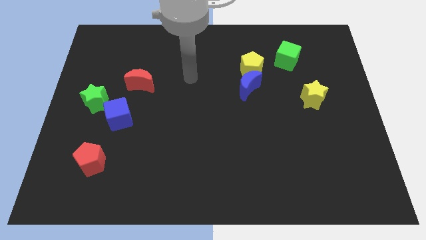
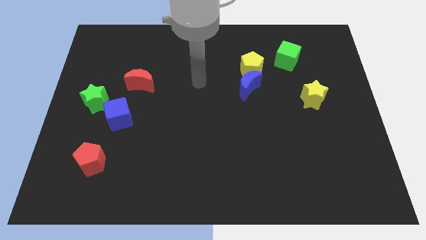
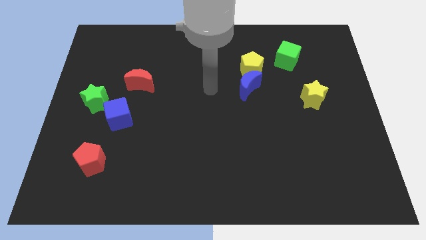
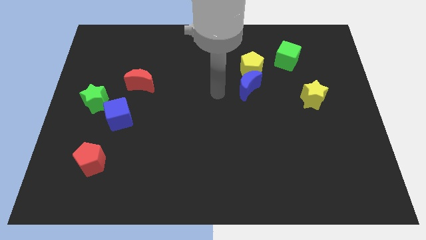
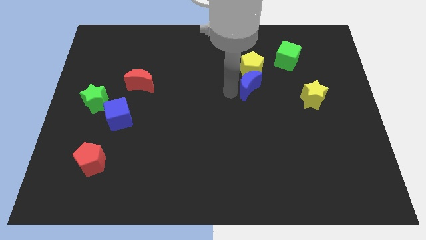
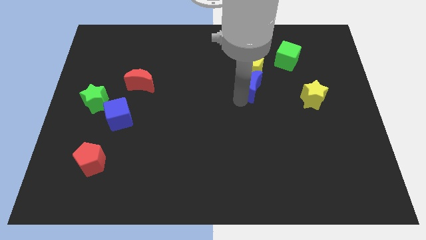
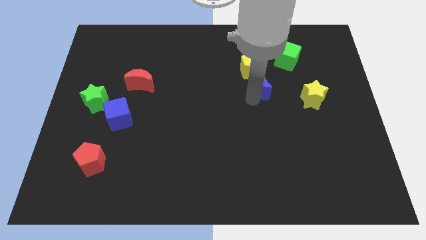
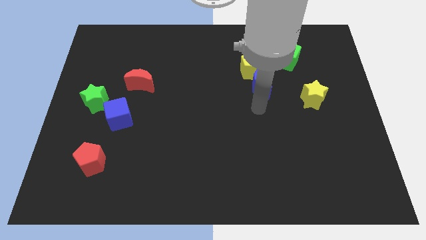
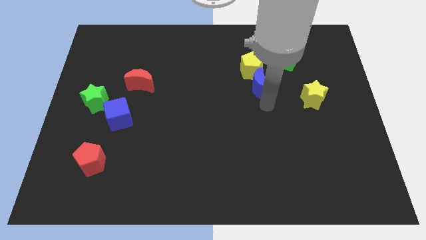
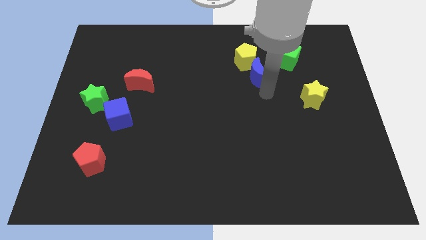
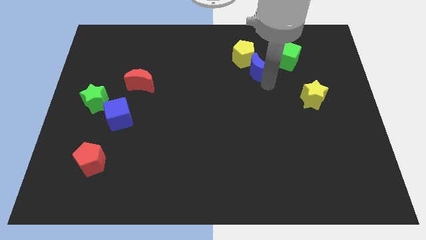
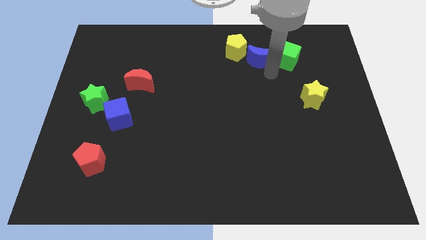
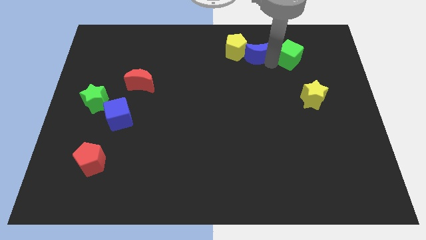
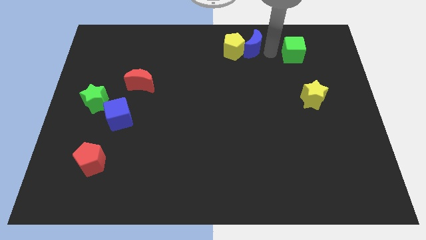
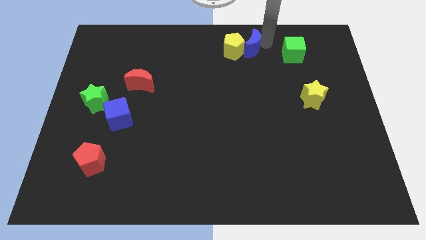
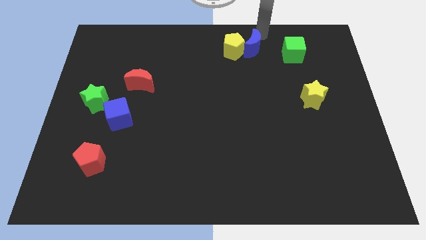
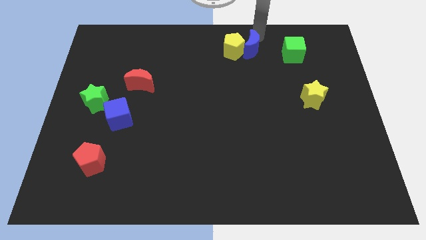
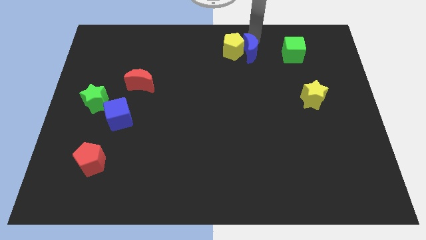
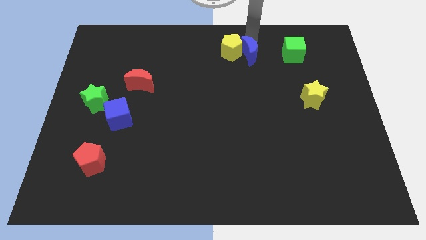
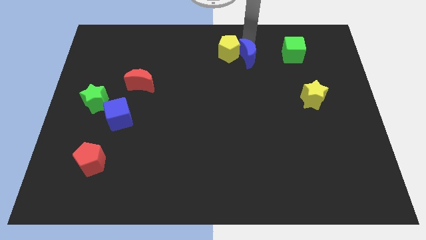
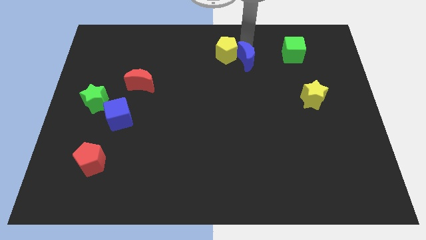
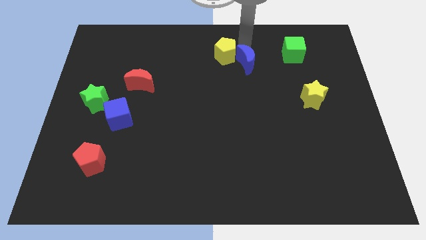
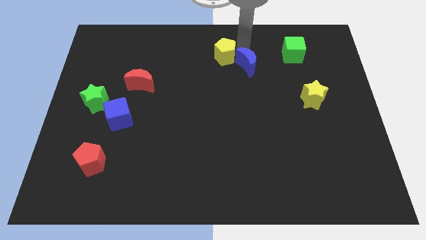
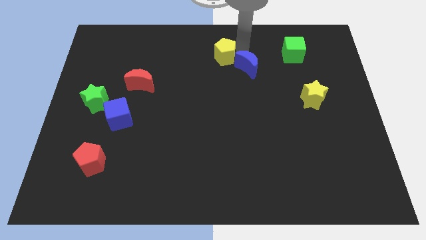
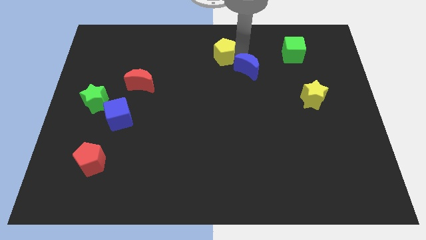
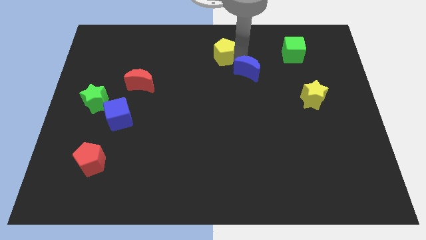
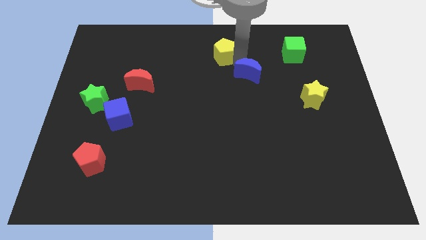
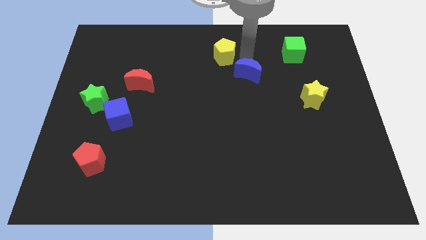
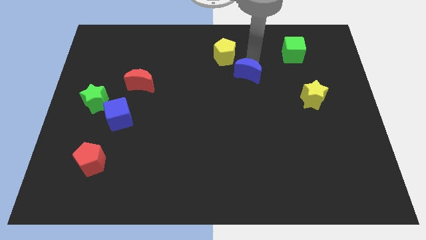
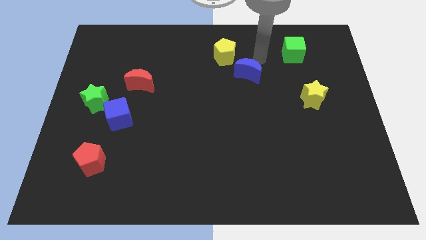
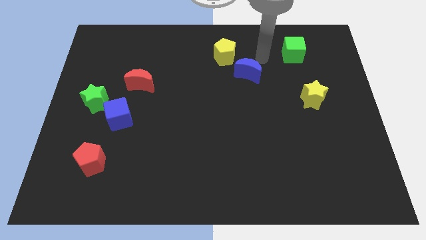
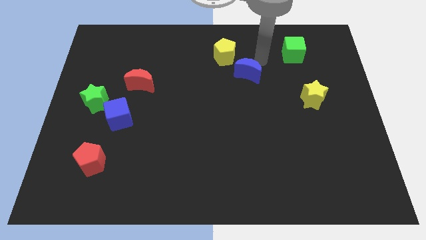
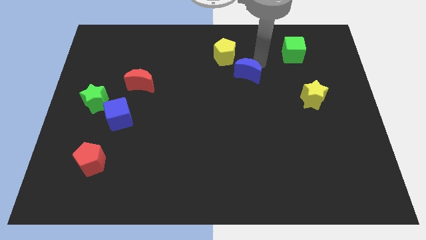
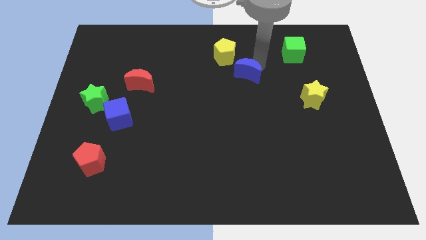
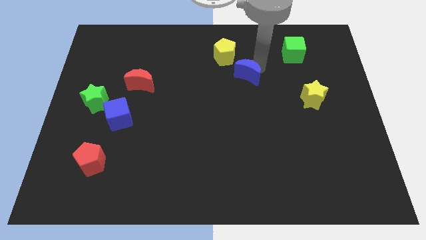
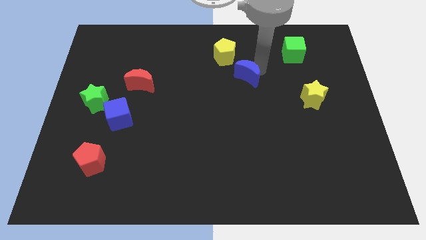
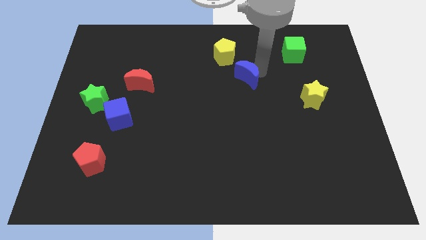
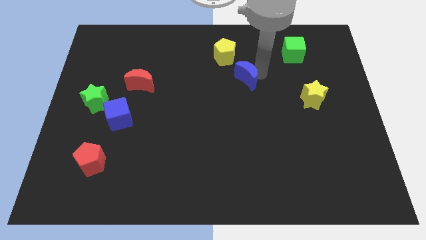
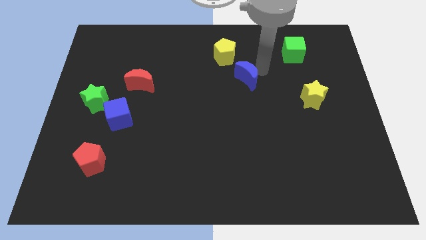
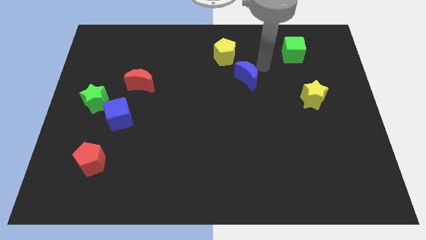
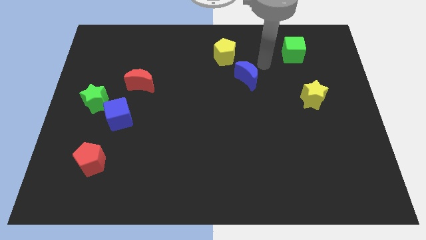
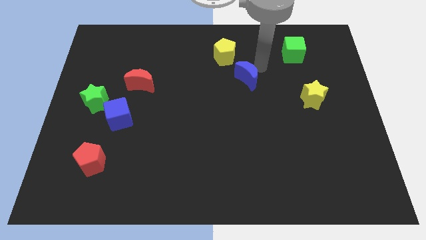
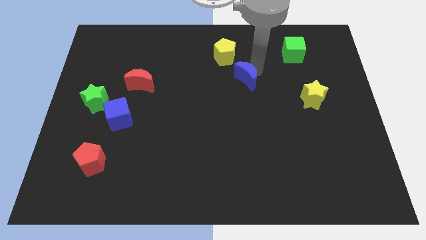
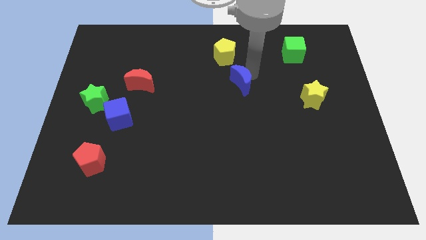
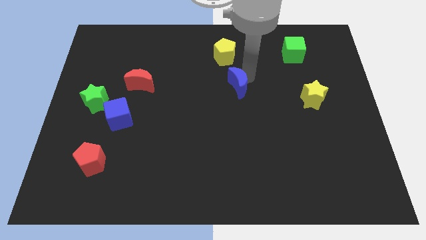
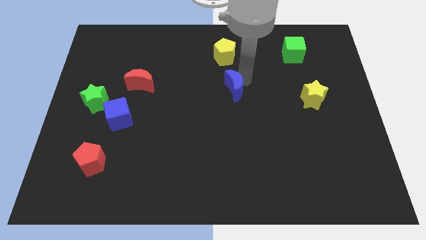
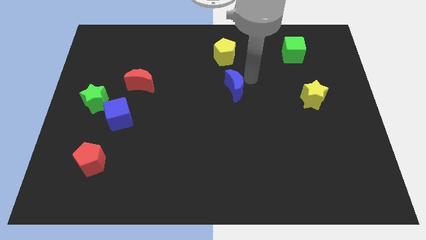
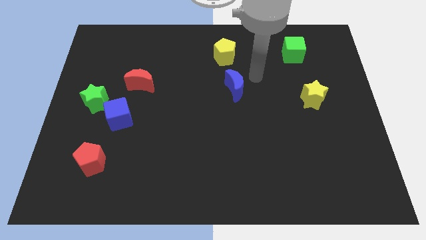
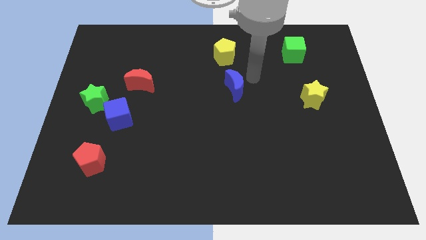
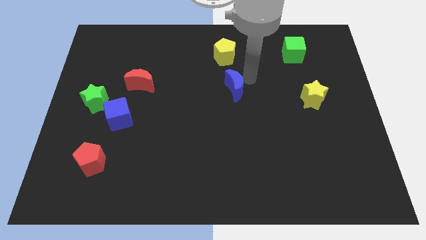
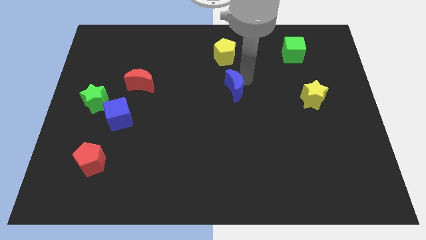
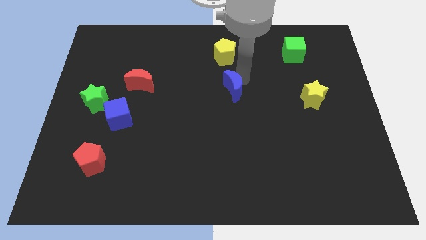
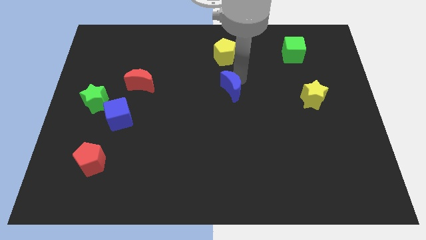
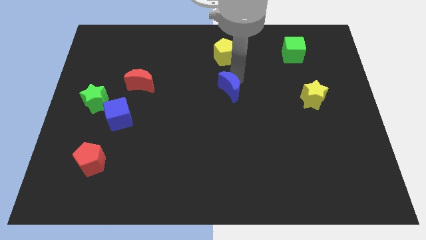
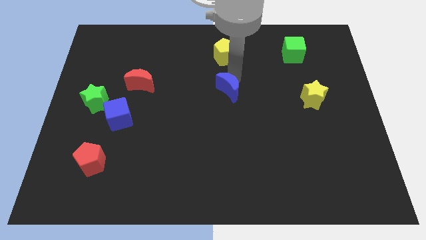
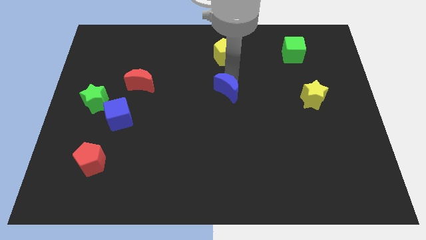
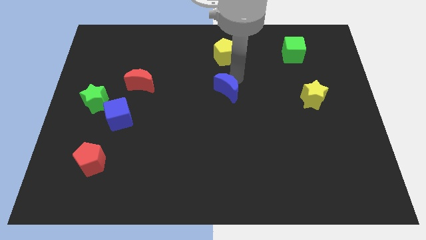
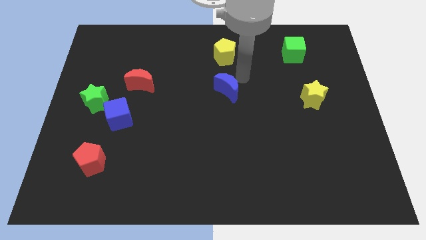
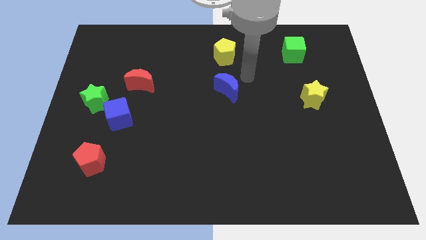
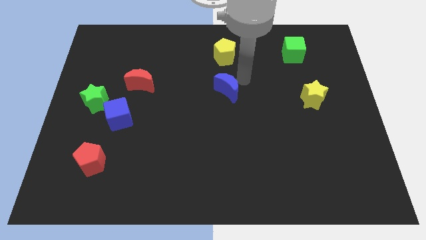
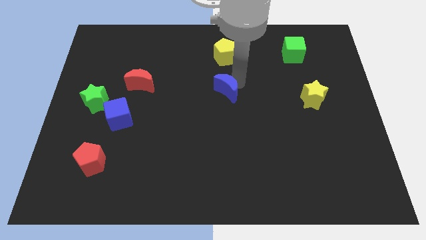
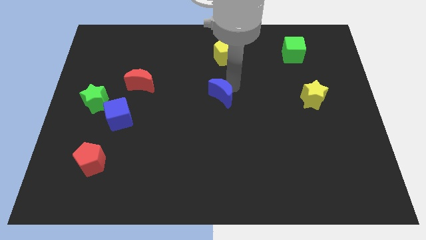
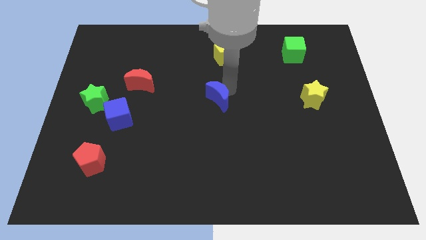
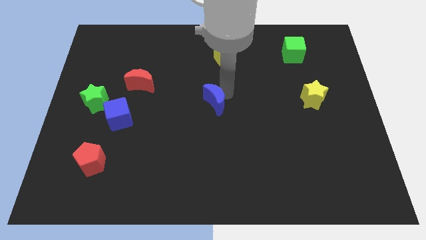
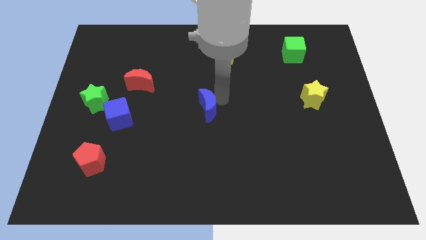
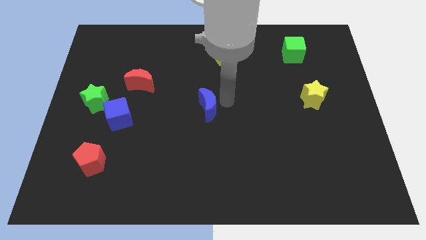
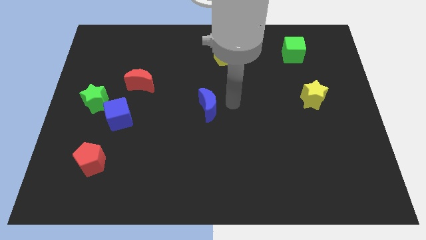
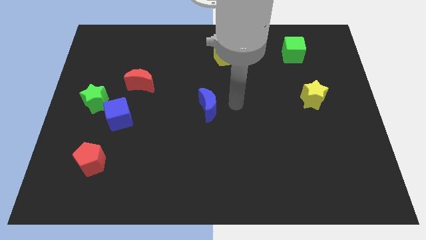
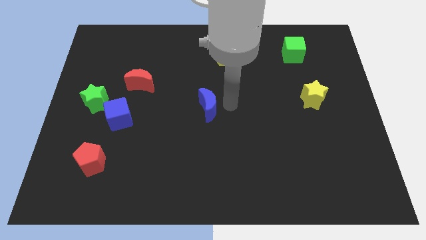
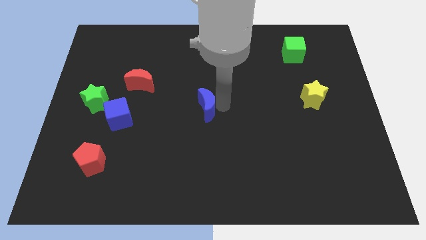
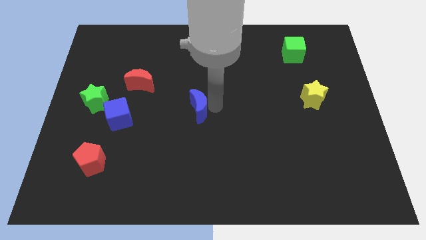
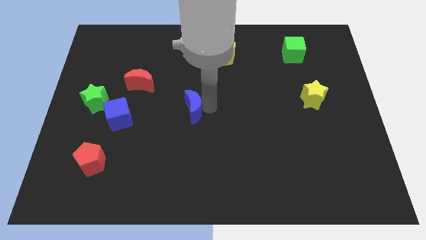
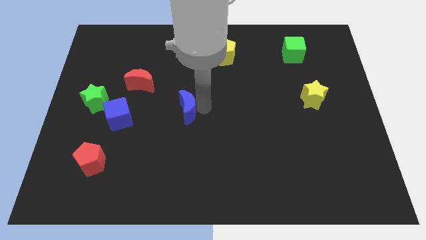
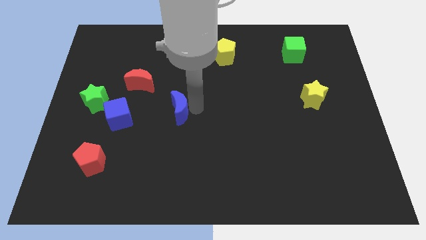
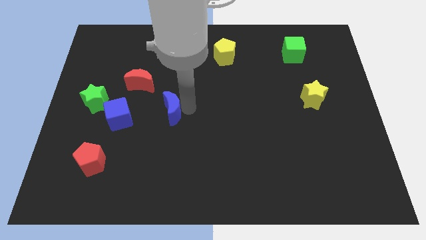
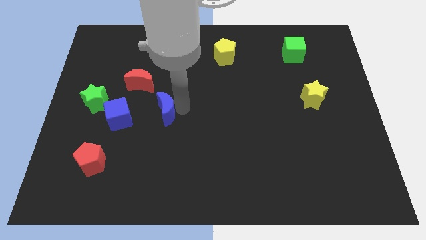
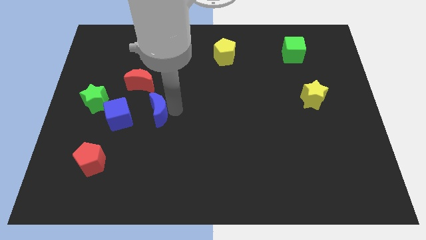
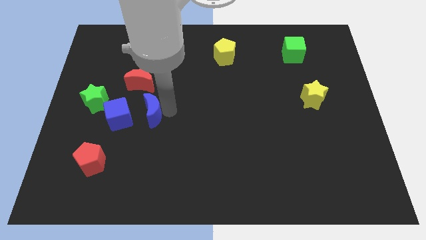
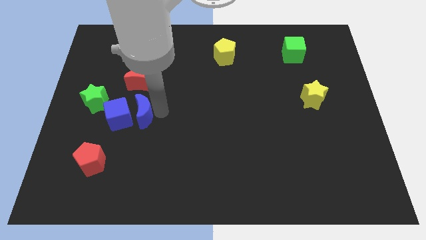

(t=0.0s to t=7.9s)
slide the blue moon close to the blue cube
